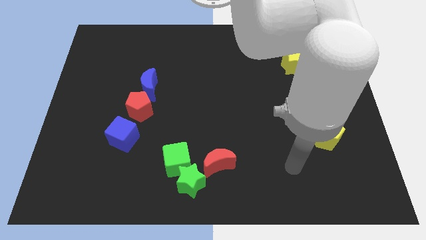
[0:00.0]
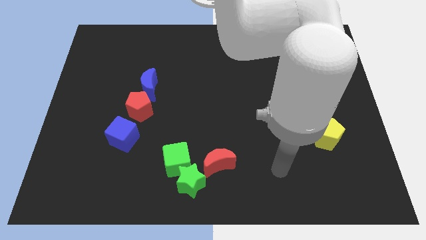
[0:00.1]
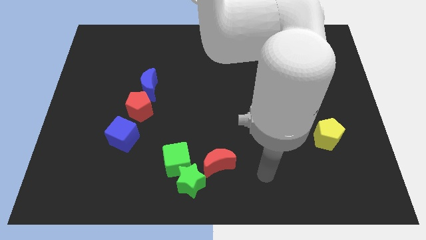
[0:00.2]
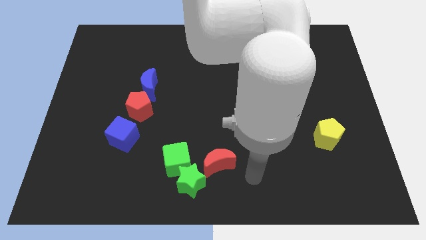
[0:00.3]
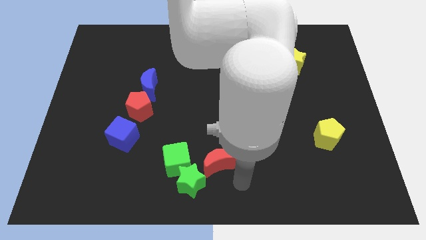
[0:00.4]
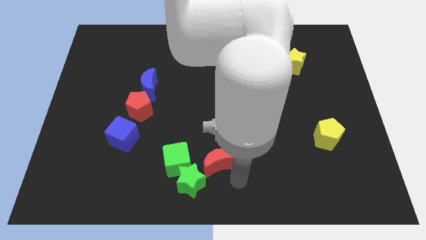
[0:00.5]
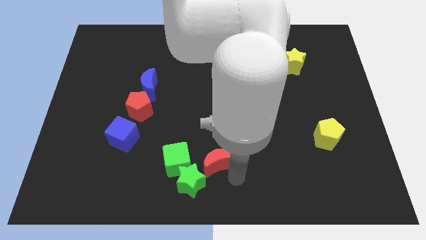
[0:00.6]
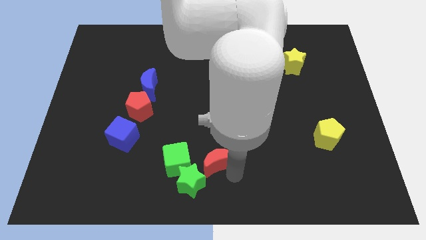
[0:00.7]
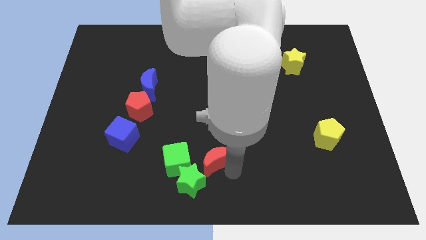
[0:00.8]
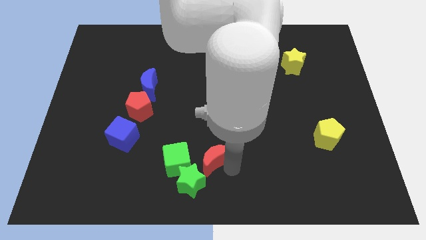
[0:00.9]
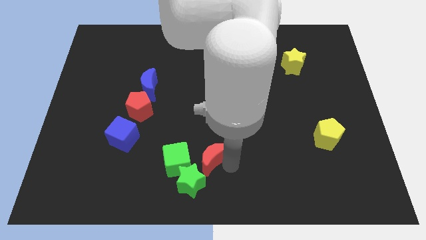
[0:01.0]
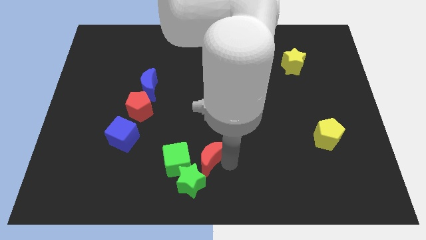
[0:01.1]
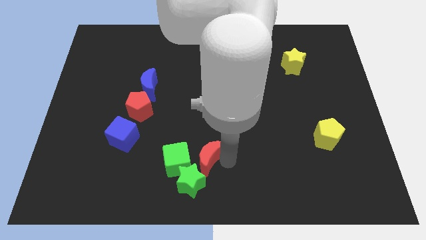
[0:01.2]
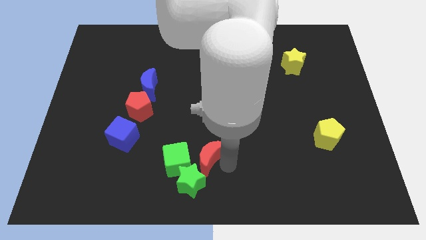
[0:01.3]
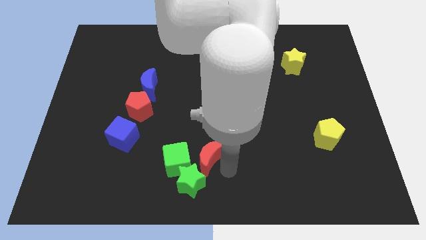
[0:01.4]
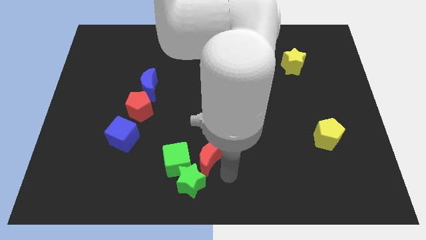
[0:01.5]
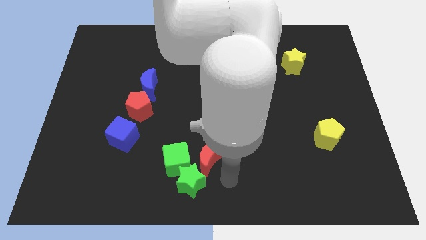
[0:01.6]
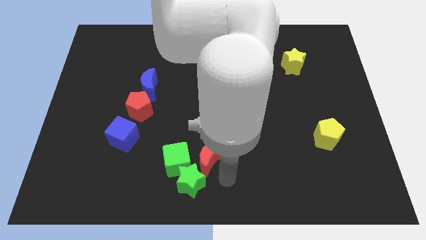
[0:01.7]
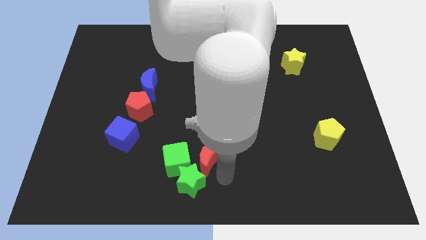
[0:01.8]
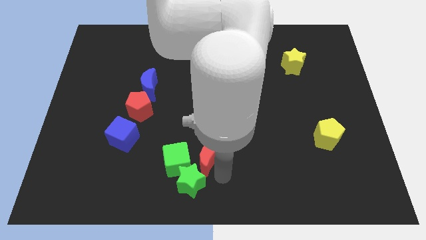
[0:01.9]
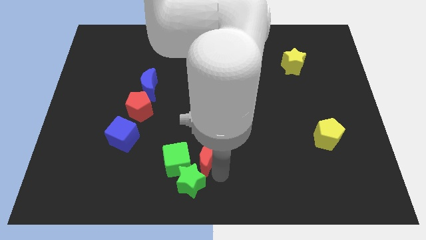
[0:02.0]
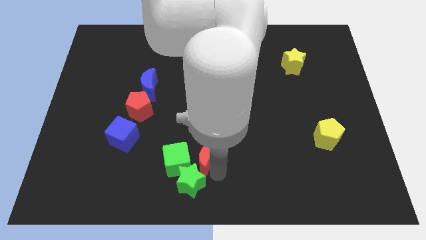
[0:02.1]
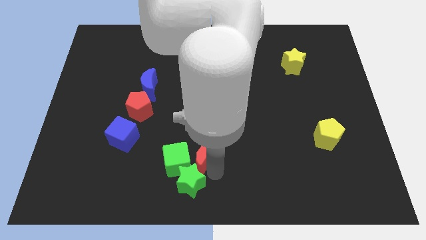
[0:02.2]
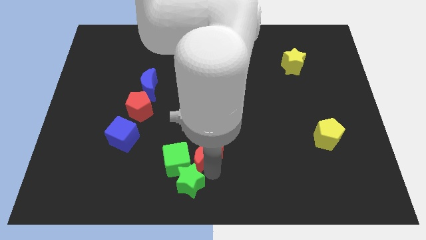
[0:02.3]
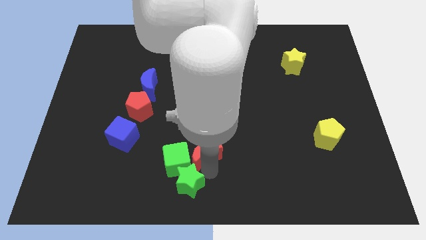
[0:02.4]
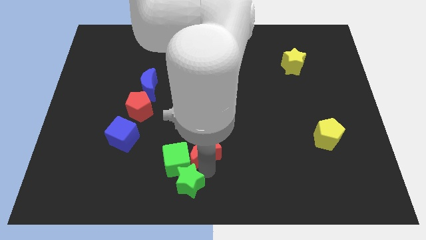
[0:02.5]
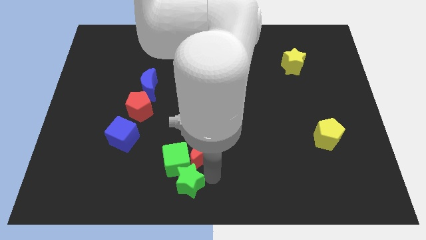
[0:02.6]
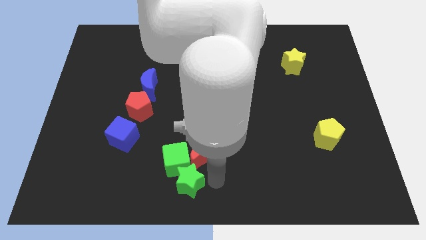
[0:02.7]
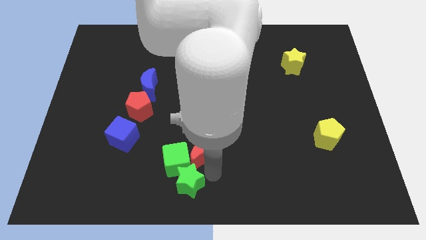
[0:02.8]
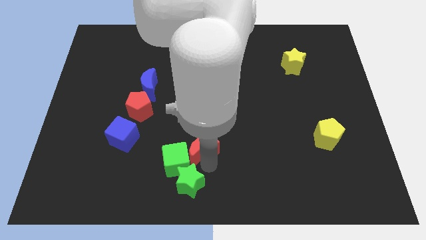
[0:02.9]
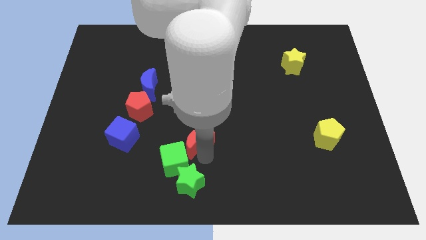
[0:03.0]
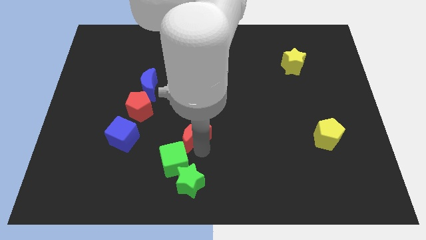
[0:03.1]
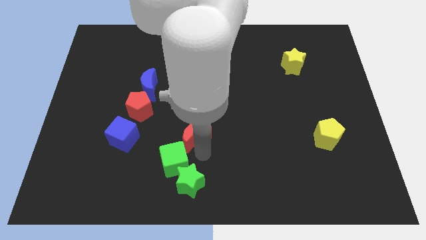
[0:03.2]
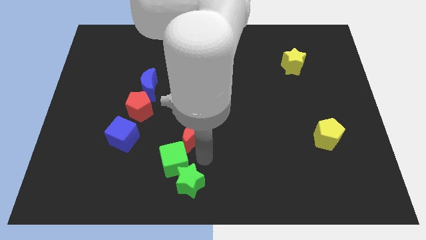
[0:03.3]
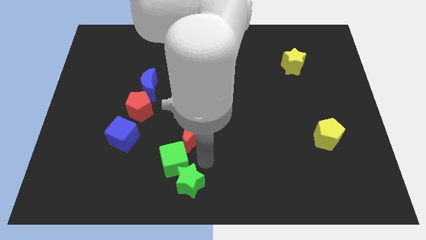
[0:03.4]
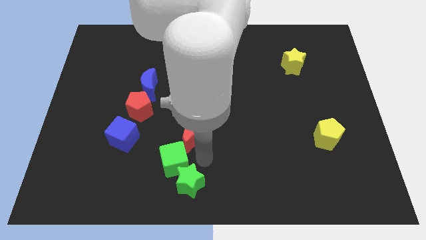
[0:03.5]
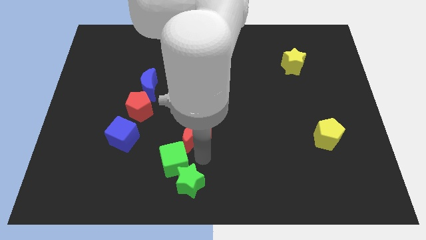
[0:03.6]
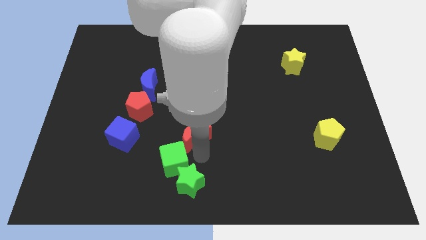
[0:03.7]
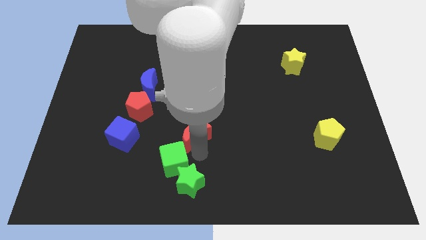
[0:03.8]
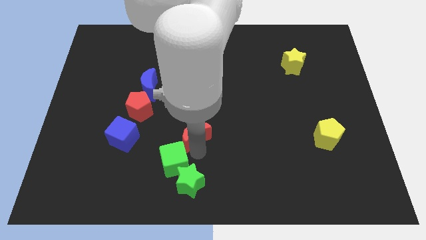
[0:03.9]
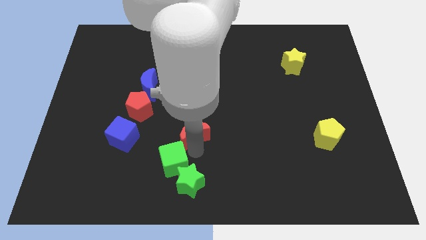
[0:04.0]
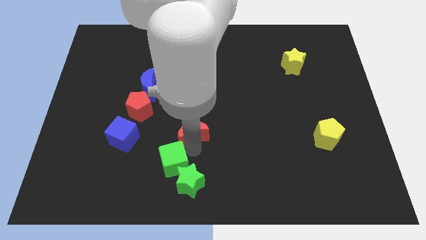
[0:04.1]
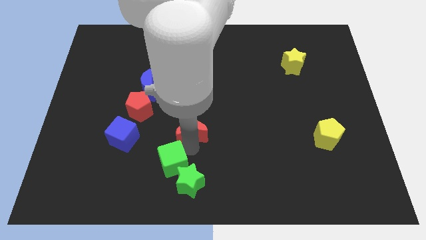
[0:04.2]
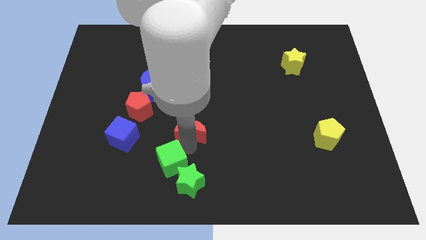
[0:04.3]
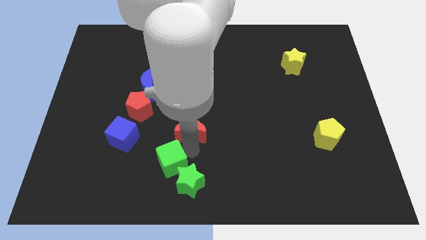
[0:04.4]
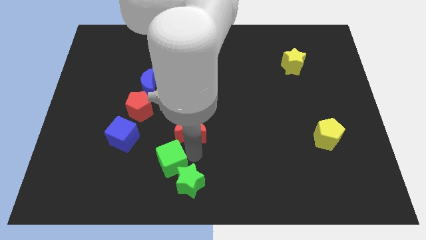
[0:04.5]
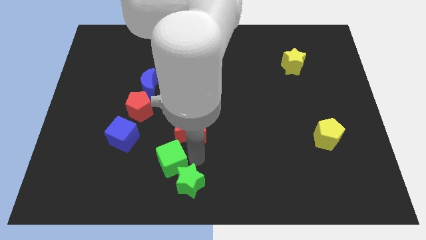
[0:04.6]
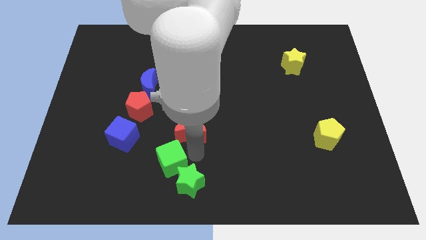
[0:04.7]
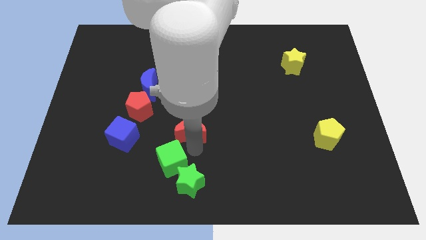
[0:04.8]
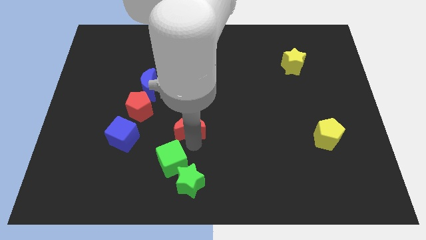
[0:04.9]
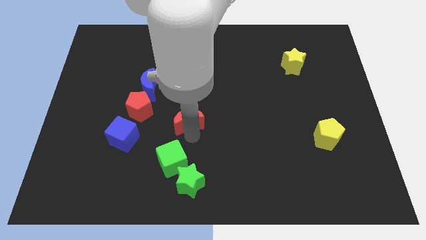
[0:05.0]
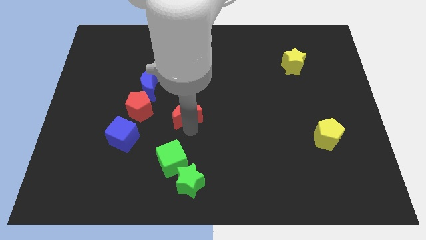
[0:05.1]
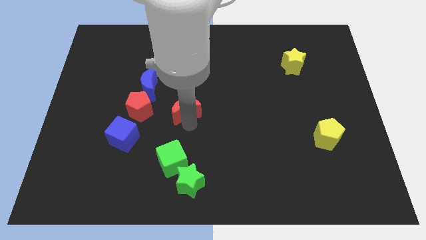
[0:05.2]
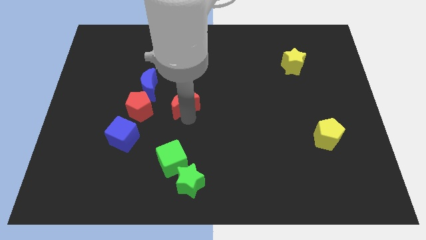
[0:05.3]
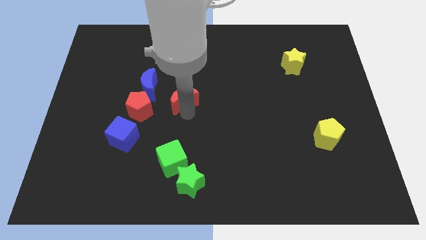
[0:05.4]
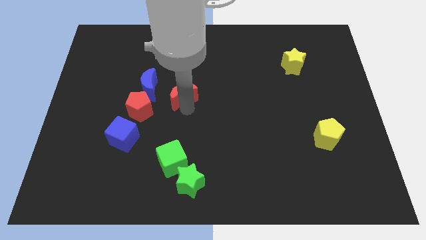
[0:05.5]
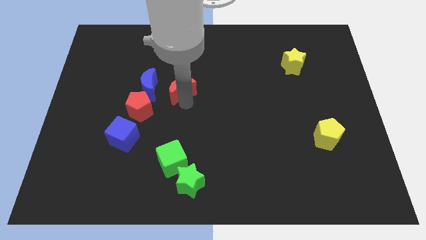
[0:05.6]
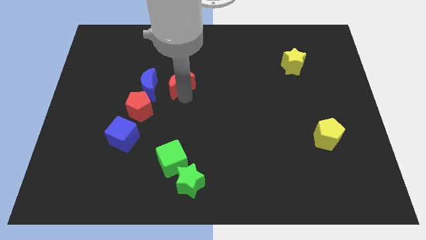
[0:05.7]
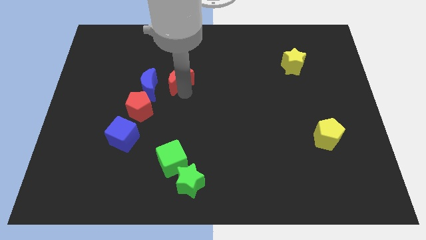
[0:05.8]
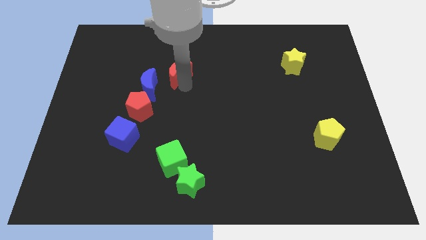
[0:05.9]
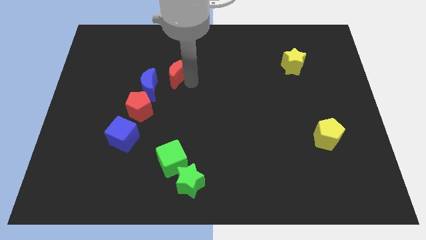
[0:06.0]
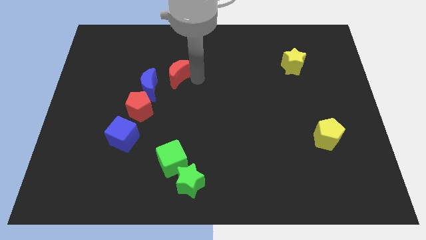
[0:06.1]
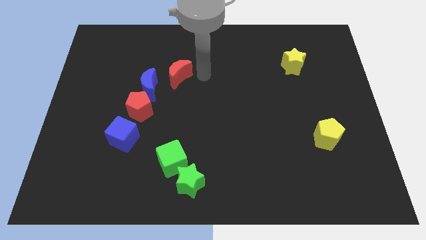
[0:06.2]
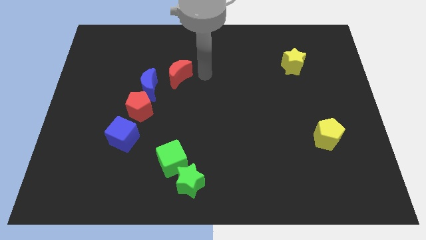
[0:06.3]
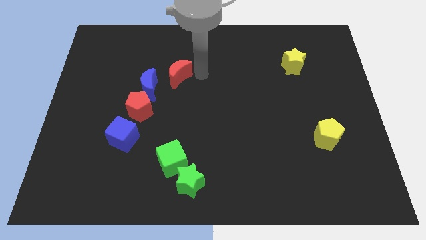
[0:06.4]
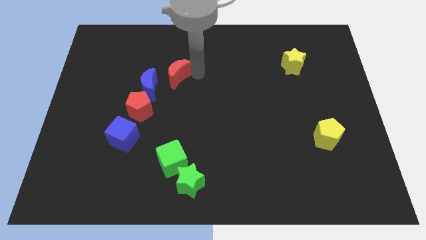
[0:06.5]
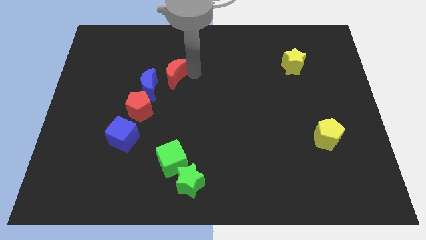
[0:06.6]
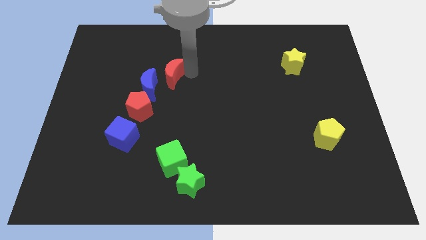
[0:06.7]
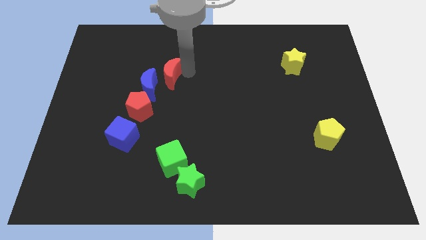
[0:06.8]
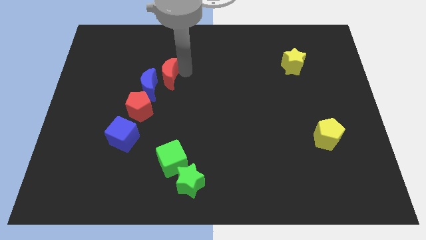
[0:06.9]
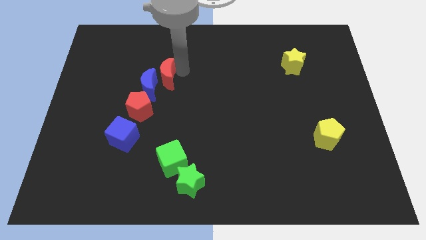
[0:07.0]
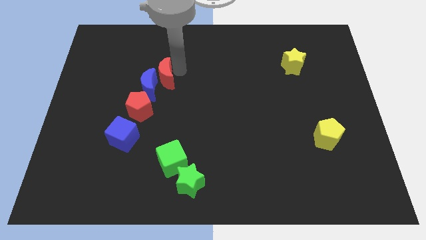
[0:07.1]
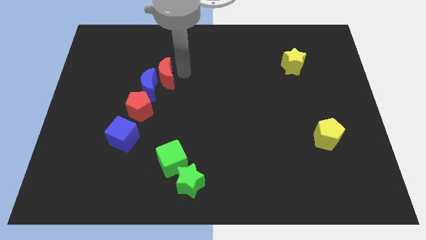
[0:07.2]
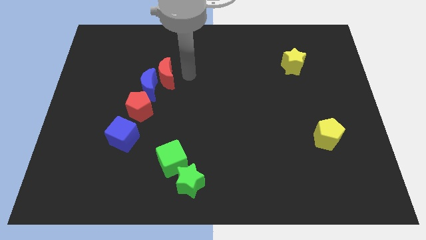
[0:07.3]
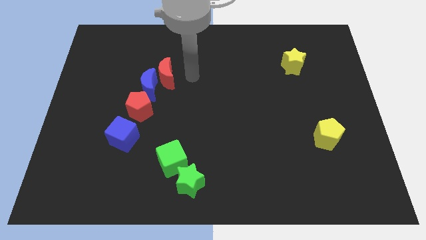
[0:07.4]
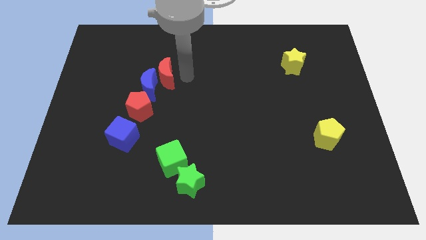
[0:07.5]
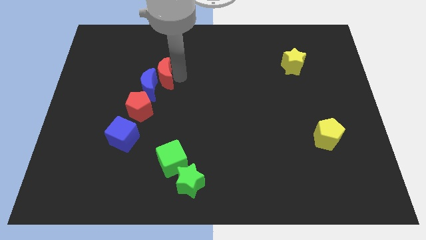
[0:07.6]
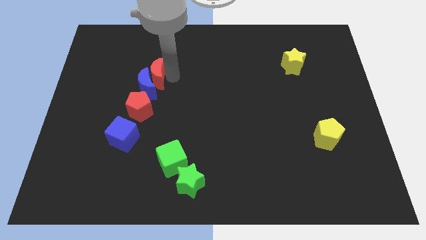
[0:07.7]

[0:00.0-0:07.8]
slide the red moon to the top of the red pentagon

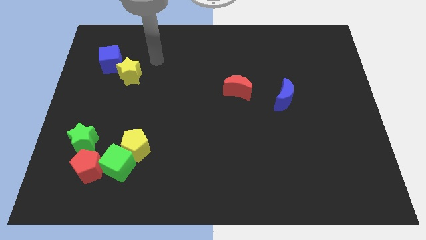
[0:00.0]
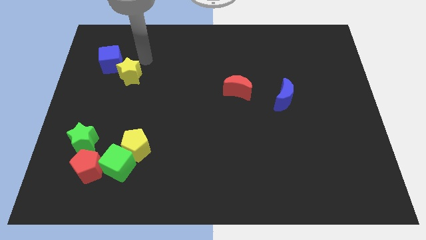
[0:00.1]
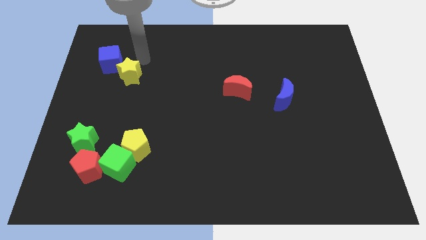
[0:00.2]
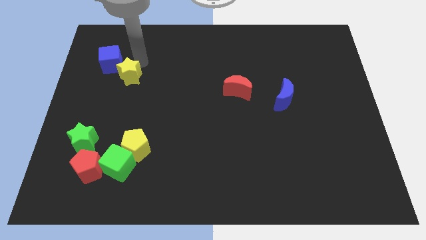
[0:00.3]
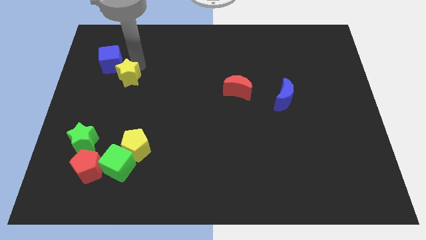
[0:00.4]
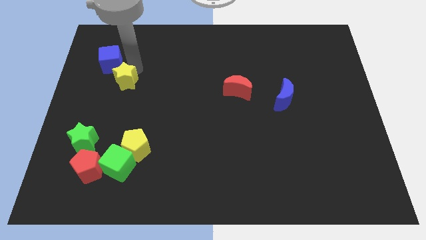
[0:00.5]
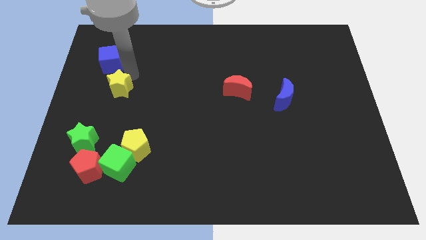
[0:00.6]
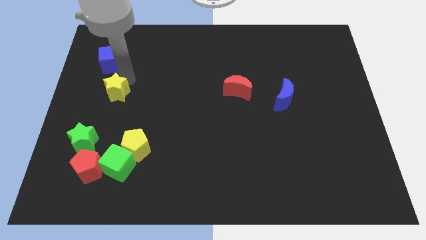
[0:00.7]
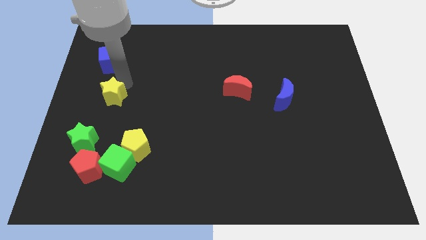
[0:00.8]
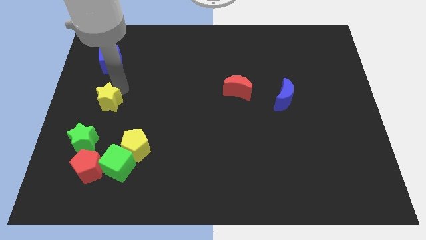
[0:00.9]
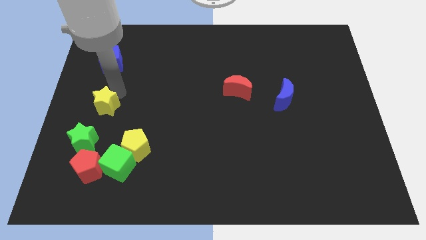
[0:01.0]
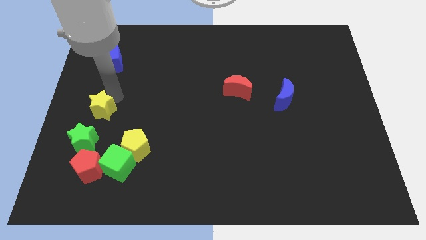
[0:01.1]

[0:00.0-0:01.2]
push the yellow star to the top side of the red pentagon
